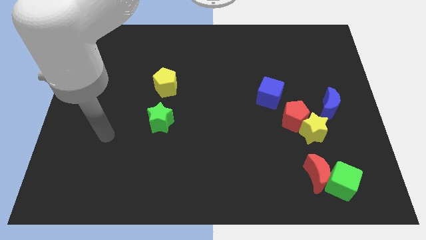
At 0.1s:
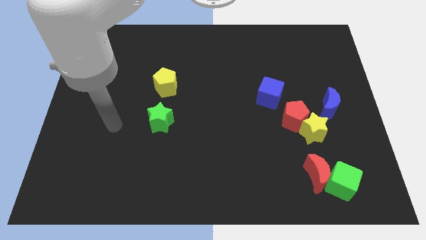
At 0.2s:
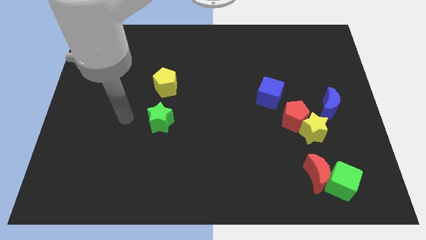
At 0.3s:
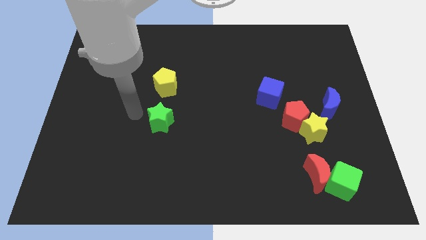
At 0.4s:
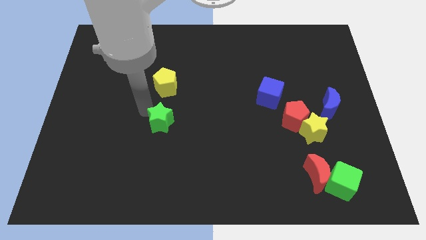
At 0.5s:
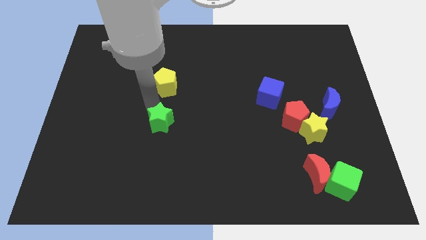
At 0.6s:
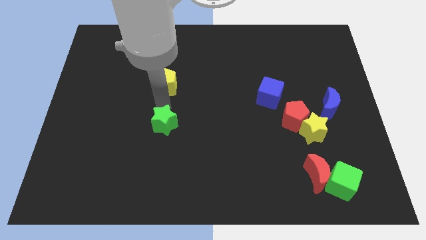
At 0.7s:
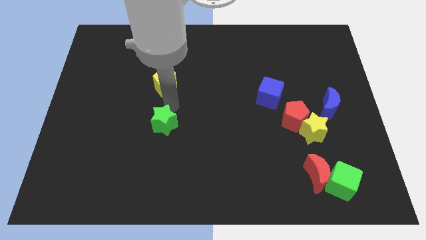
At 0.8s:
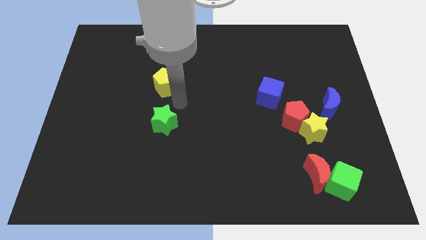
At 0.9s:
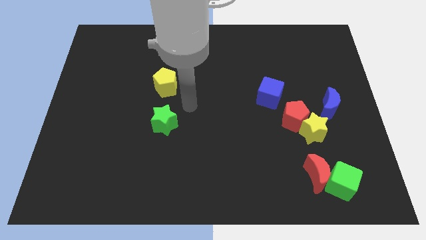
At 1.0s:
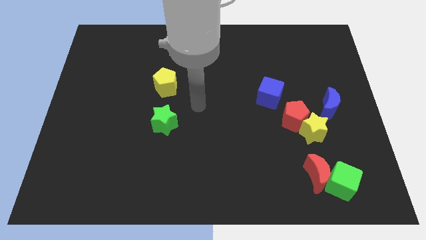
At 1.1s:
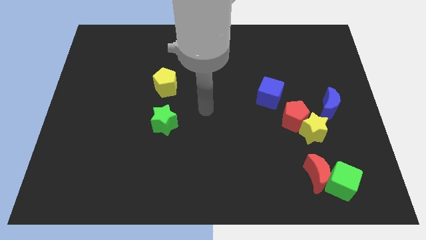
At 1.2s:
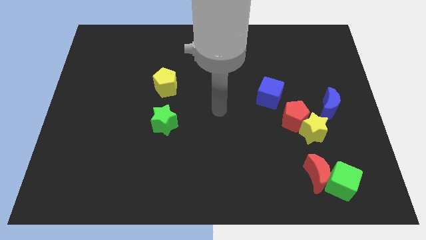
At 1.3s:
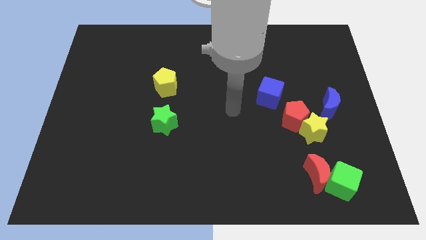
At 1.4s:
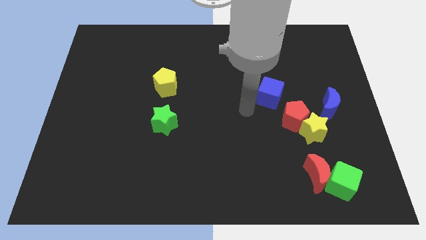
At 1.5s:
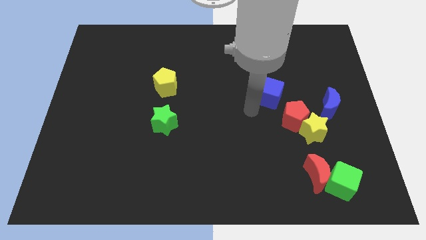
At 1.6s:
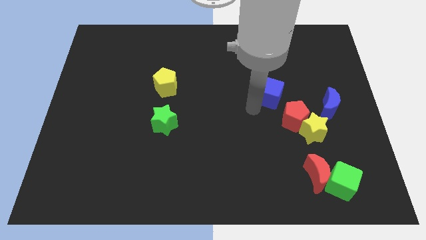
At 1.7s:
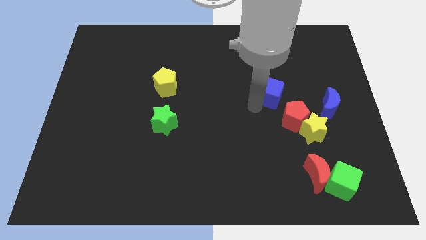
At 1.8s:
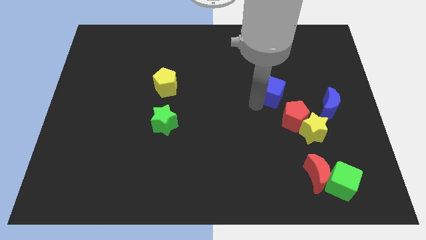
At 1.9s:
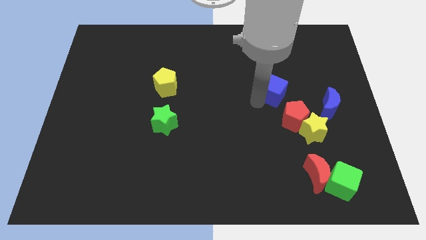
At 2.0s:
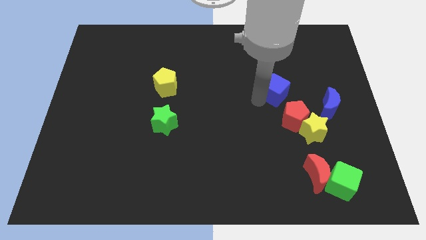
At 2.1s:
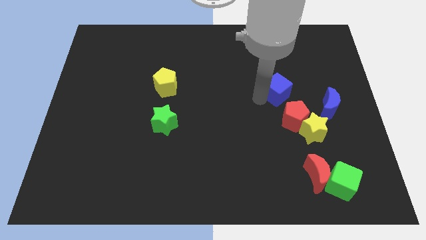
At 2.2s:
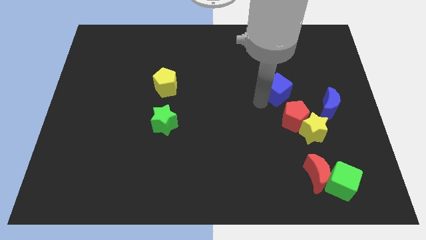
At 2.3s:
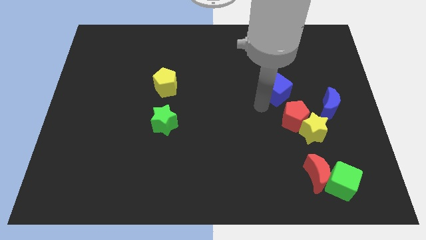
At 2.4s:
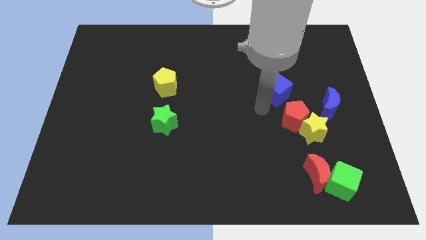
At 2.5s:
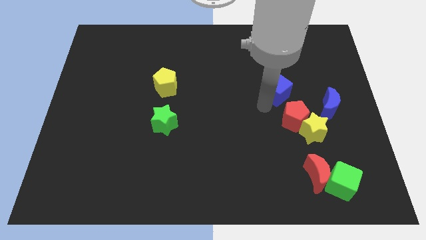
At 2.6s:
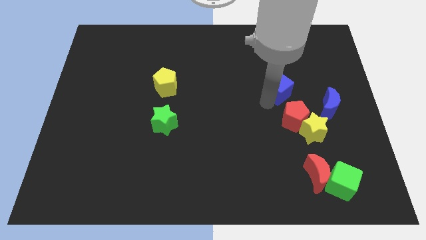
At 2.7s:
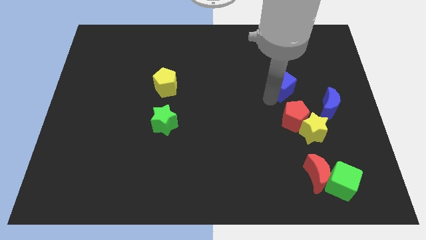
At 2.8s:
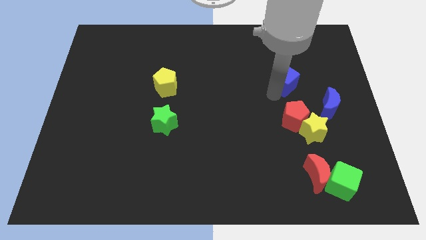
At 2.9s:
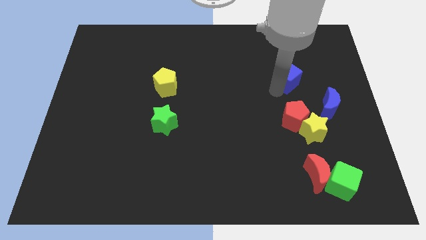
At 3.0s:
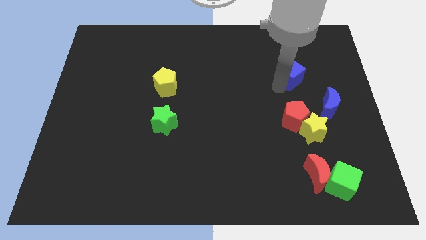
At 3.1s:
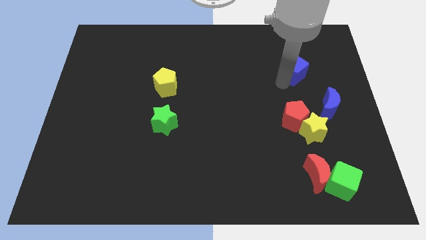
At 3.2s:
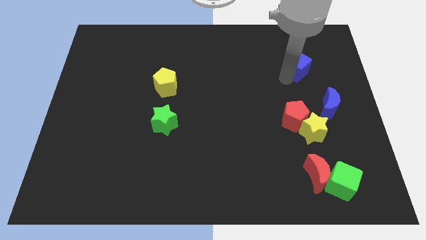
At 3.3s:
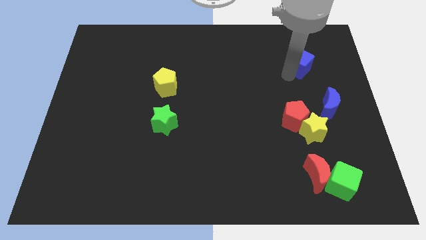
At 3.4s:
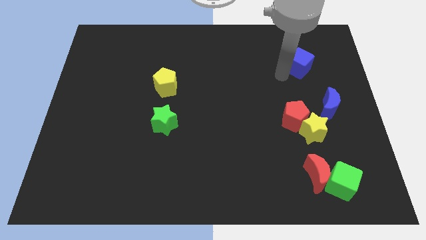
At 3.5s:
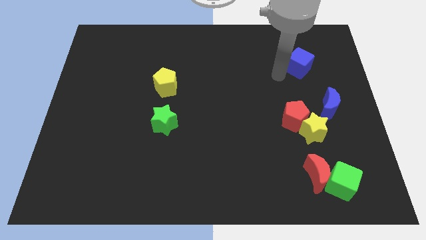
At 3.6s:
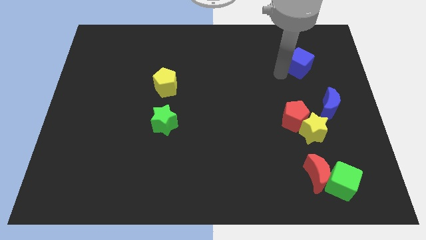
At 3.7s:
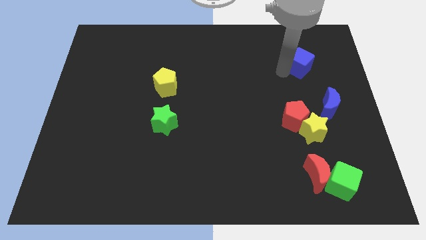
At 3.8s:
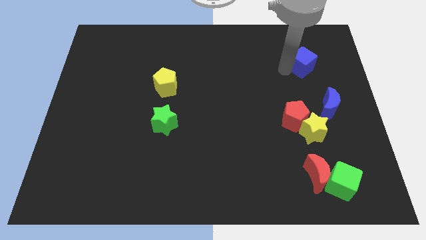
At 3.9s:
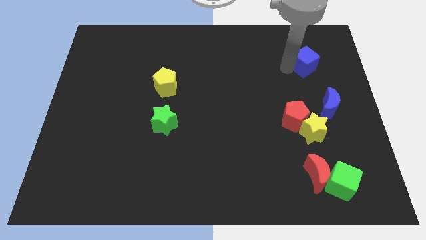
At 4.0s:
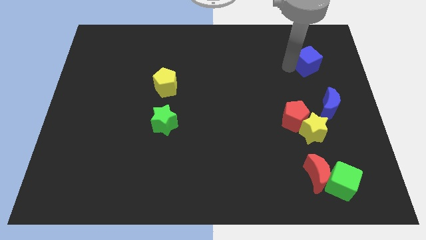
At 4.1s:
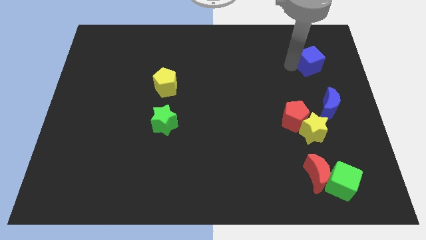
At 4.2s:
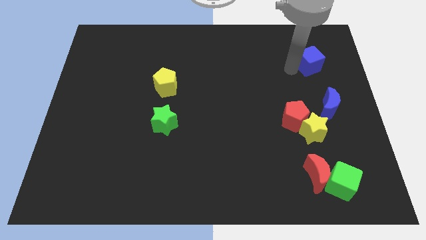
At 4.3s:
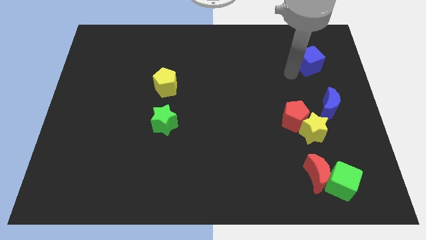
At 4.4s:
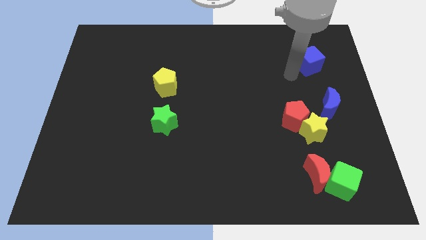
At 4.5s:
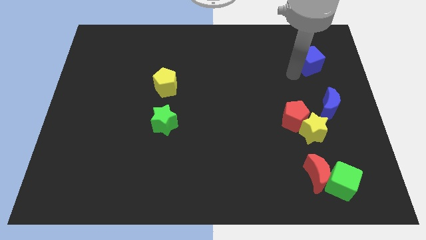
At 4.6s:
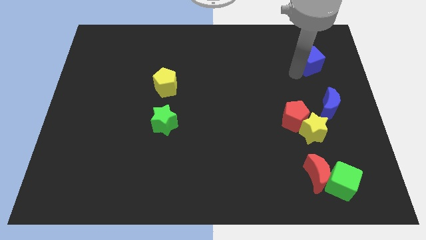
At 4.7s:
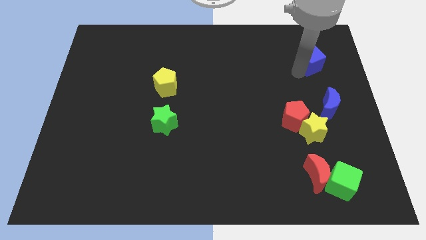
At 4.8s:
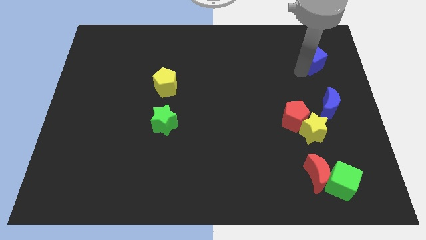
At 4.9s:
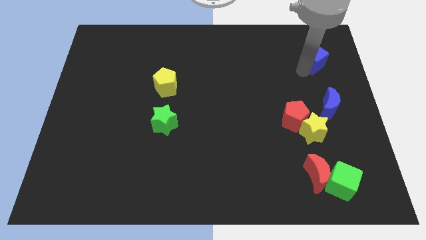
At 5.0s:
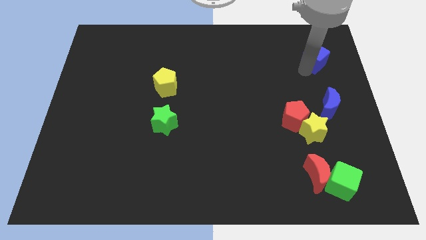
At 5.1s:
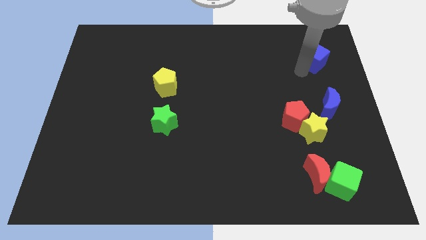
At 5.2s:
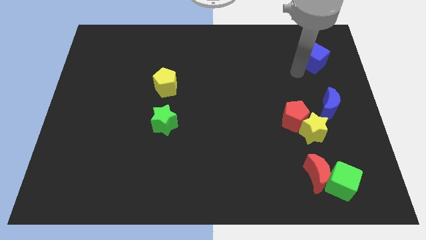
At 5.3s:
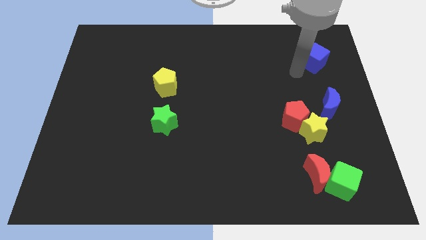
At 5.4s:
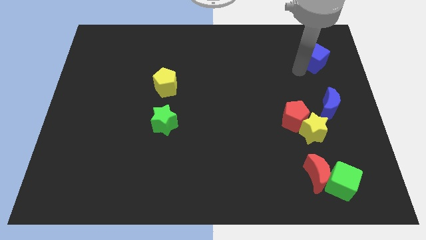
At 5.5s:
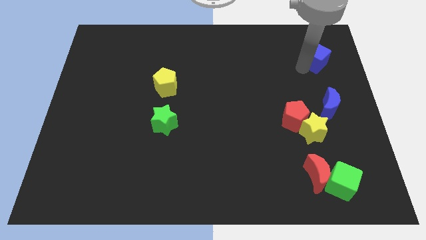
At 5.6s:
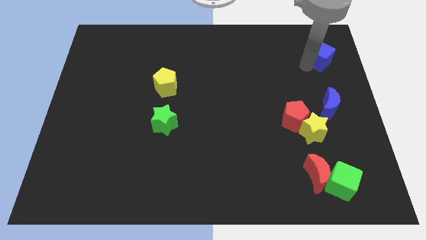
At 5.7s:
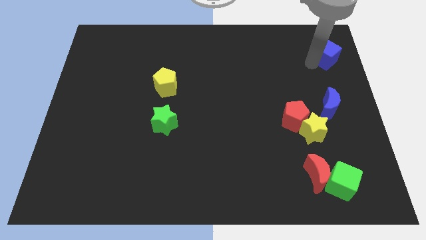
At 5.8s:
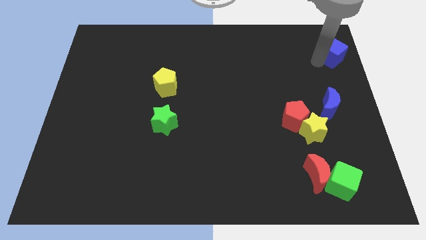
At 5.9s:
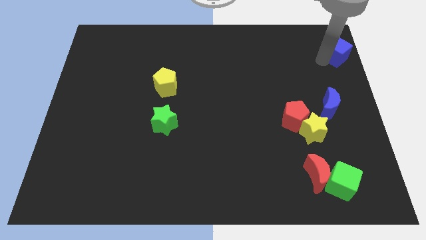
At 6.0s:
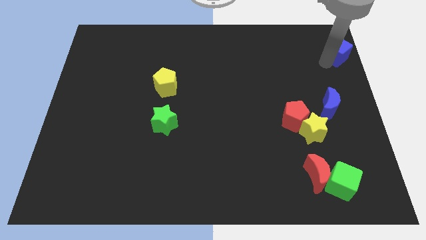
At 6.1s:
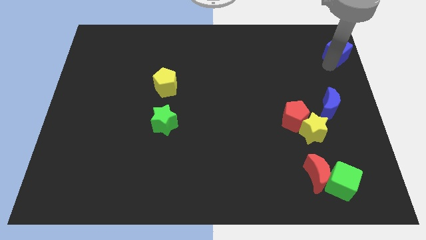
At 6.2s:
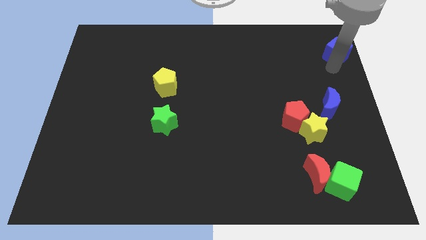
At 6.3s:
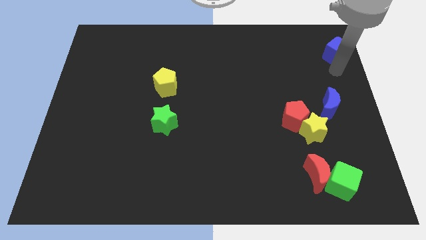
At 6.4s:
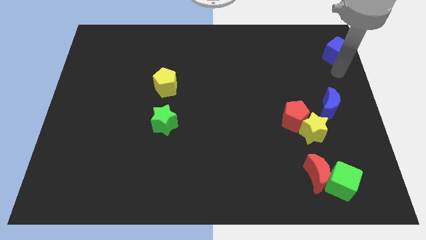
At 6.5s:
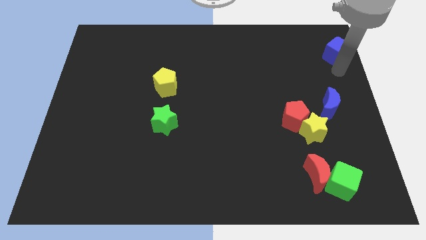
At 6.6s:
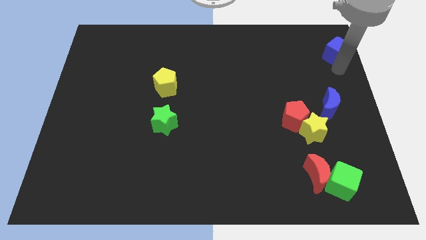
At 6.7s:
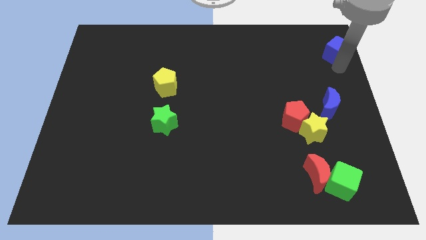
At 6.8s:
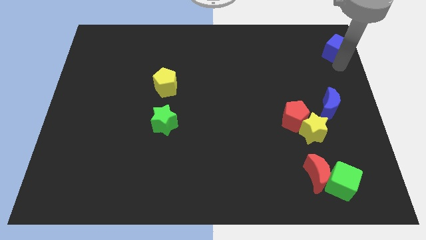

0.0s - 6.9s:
put the blue cube to the top right

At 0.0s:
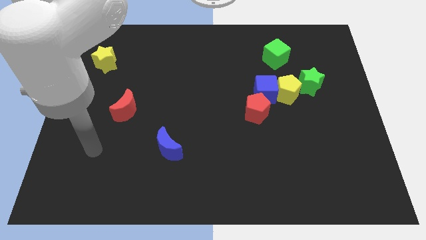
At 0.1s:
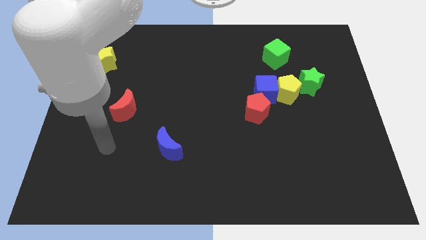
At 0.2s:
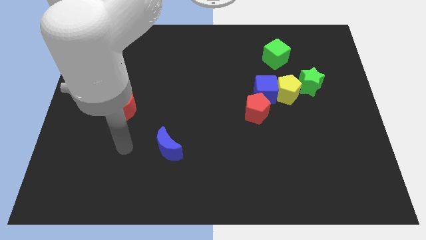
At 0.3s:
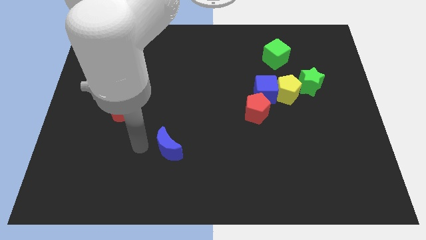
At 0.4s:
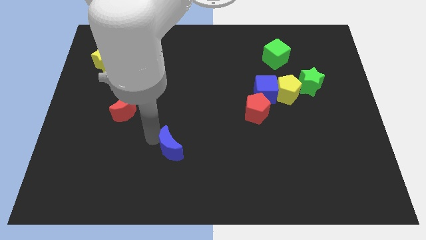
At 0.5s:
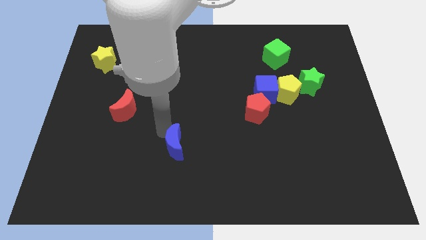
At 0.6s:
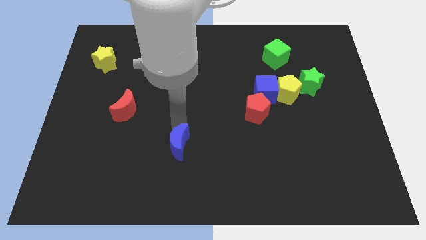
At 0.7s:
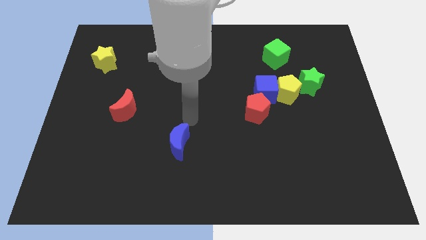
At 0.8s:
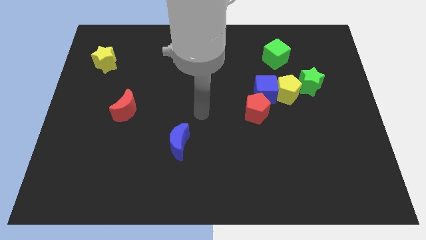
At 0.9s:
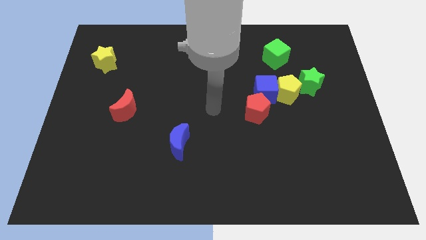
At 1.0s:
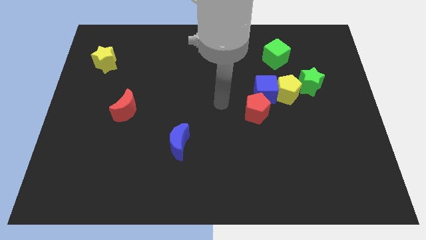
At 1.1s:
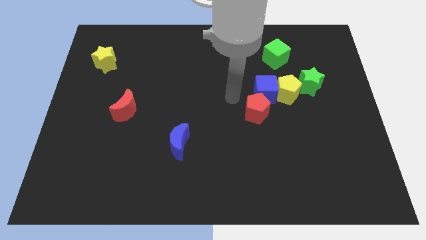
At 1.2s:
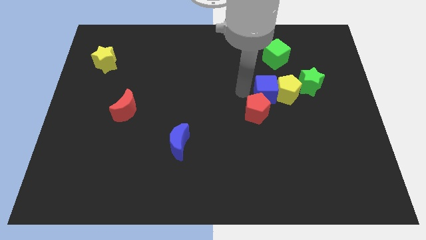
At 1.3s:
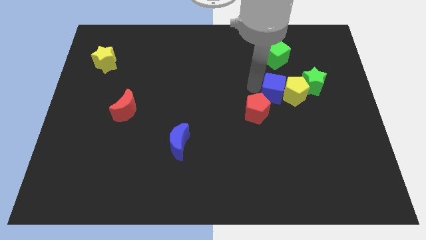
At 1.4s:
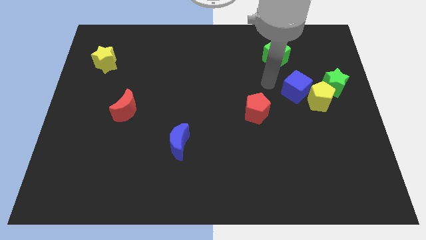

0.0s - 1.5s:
push the yellow pentagon to the right side
